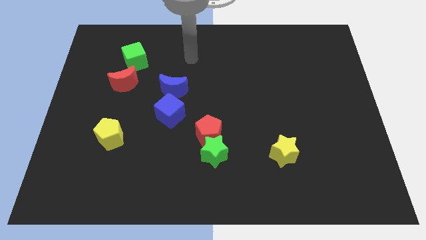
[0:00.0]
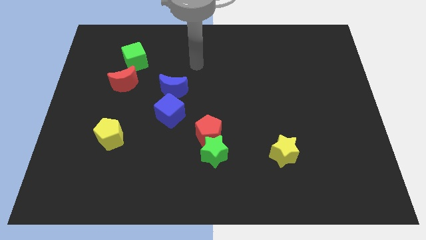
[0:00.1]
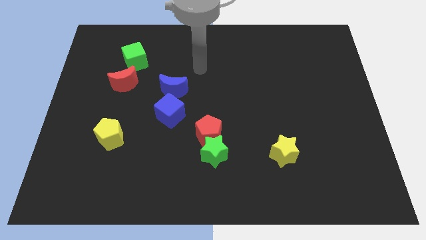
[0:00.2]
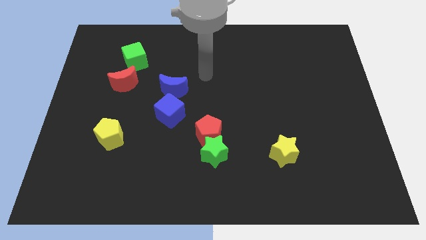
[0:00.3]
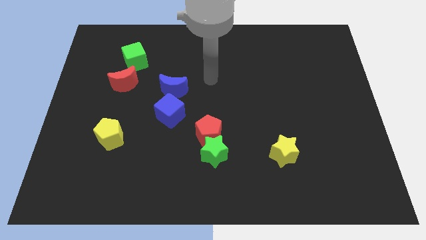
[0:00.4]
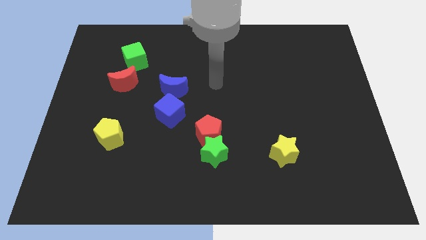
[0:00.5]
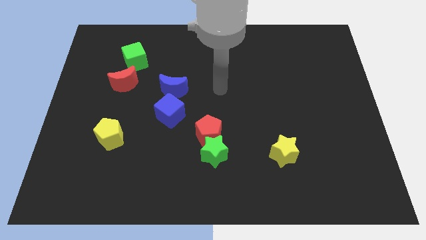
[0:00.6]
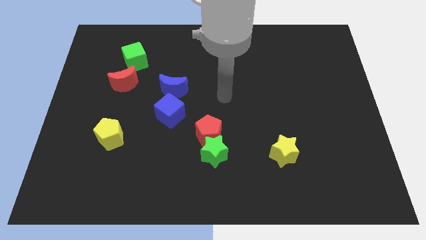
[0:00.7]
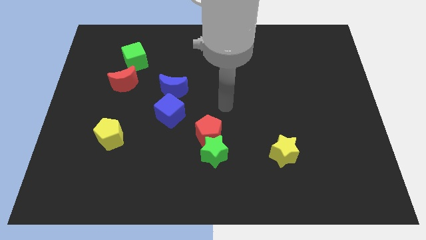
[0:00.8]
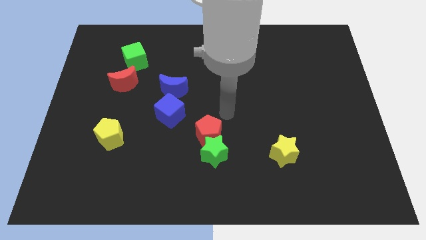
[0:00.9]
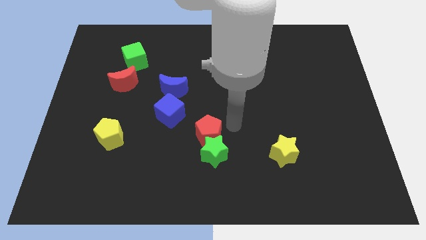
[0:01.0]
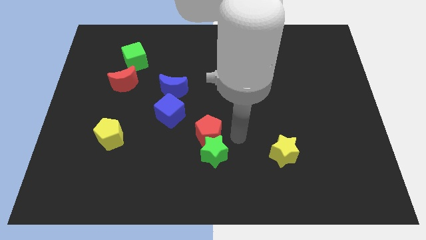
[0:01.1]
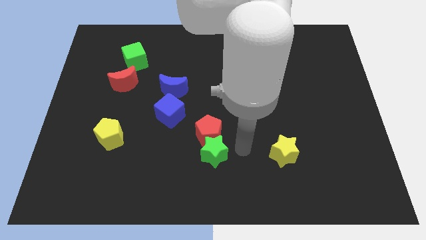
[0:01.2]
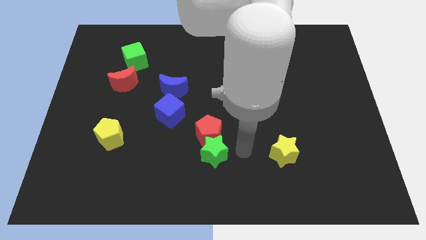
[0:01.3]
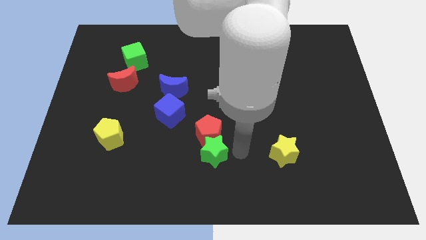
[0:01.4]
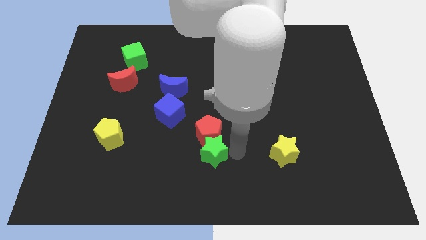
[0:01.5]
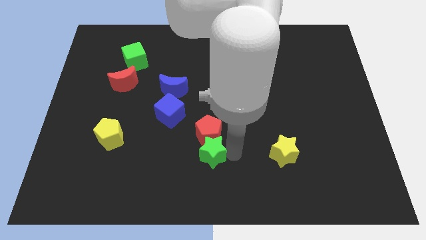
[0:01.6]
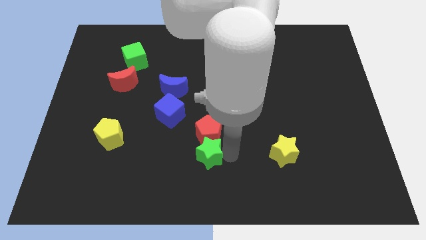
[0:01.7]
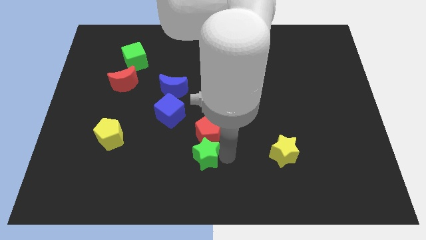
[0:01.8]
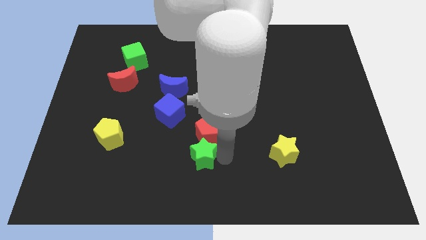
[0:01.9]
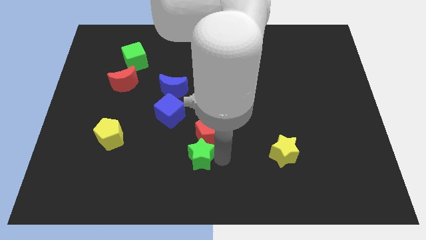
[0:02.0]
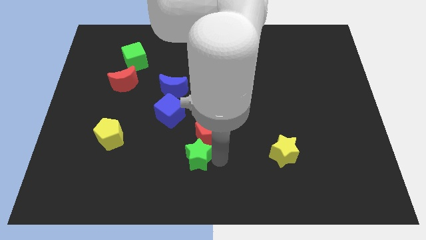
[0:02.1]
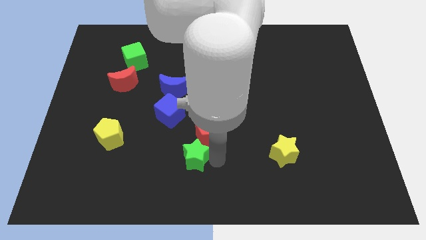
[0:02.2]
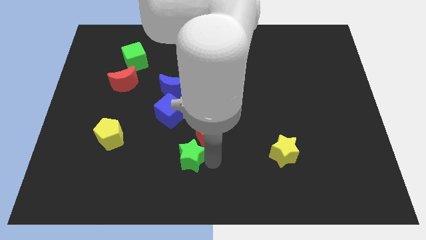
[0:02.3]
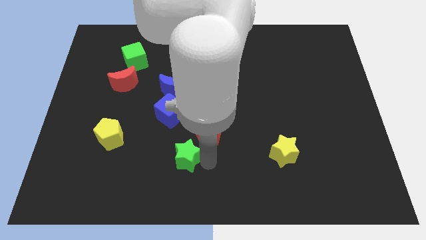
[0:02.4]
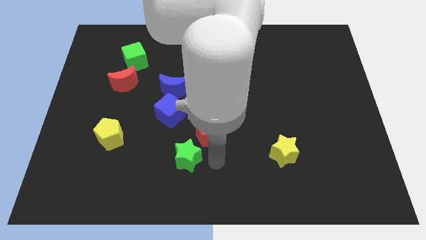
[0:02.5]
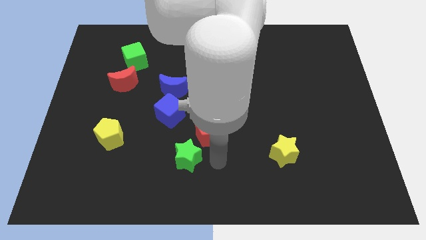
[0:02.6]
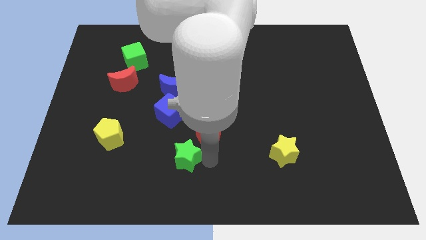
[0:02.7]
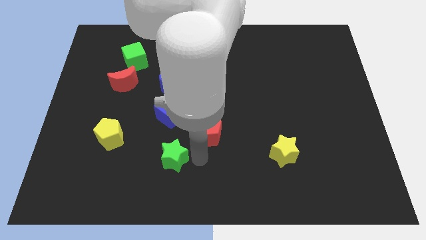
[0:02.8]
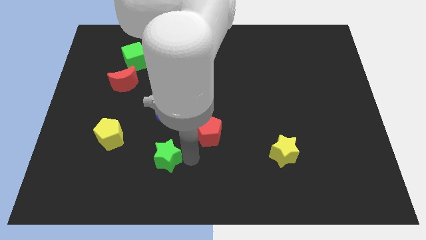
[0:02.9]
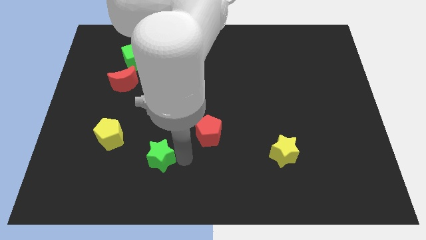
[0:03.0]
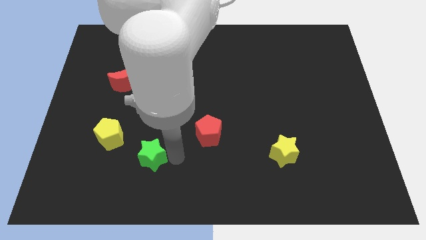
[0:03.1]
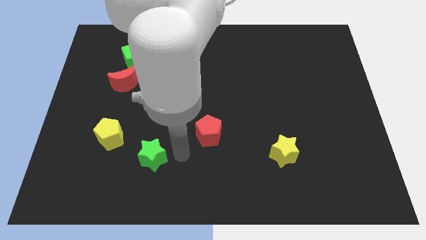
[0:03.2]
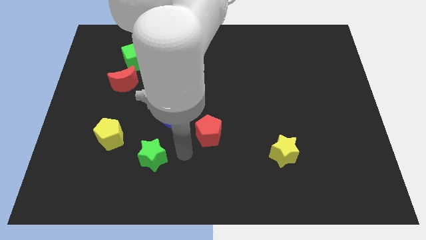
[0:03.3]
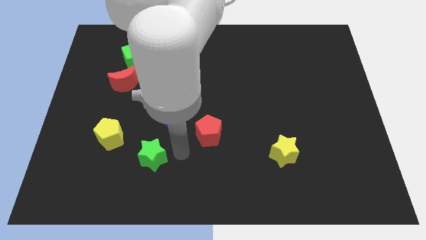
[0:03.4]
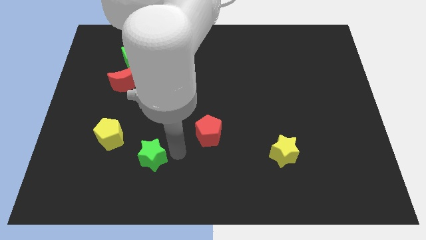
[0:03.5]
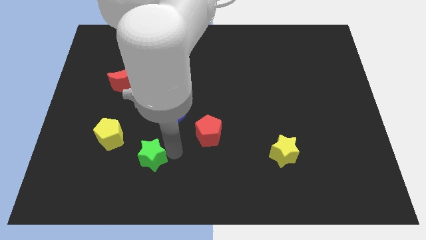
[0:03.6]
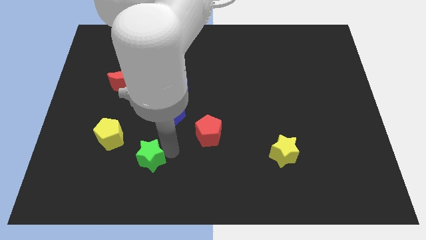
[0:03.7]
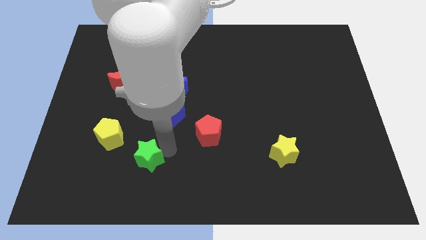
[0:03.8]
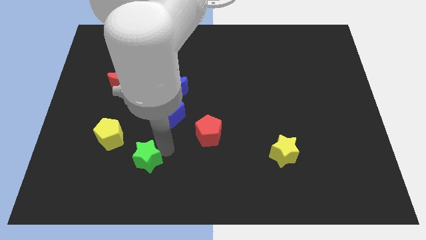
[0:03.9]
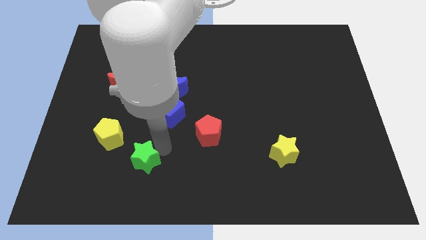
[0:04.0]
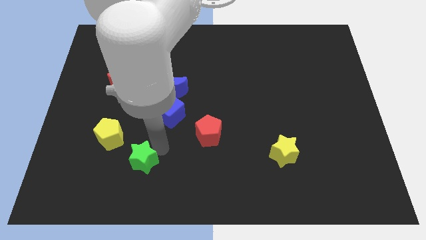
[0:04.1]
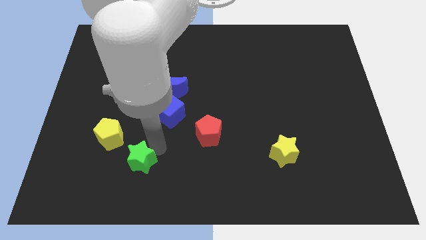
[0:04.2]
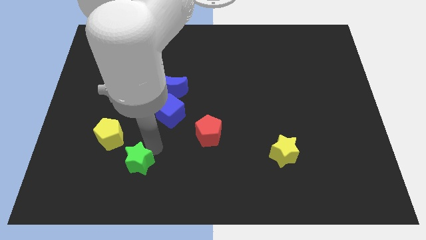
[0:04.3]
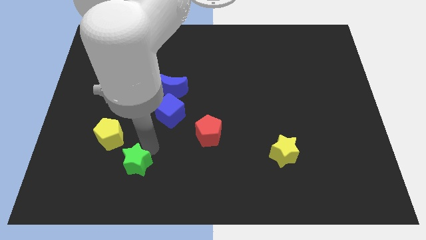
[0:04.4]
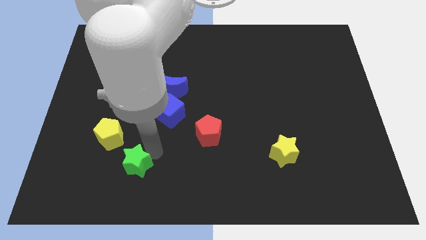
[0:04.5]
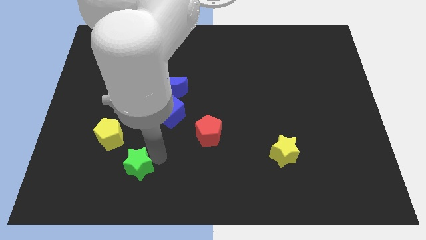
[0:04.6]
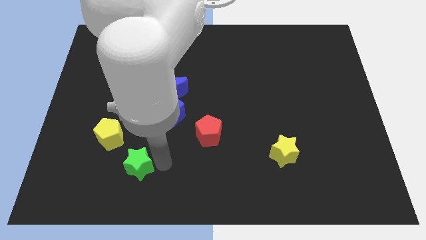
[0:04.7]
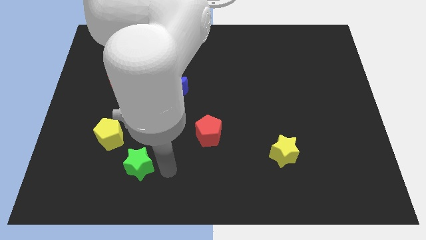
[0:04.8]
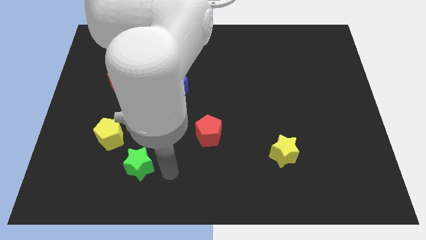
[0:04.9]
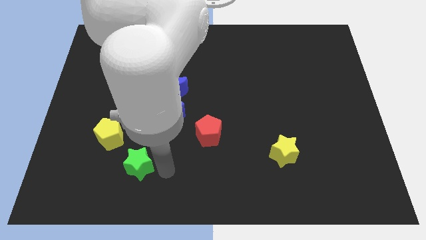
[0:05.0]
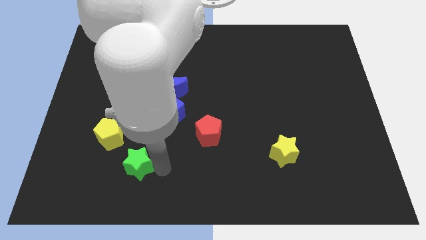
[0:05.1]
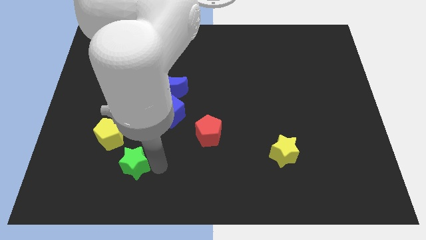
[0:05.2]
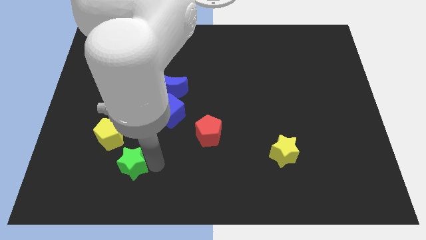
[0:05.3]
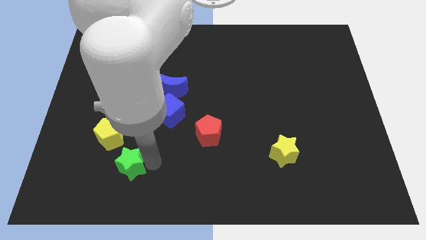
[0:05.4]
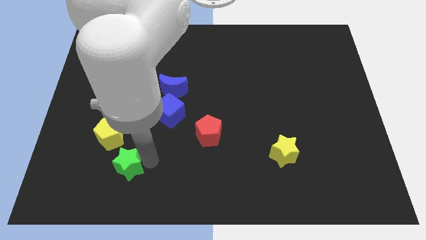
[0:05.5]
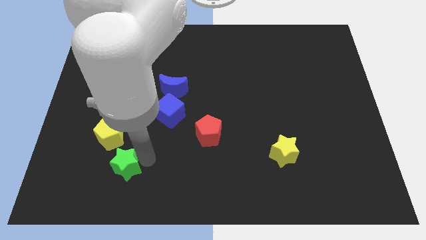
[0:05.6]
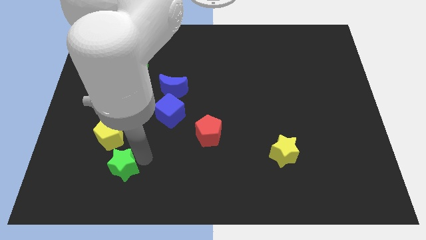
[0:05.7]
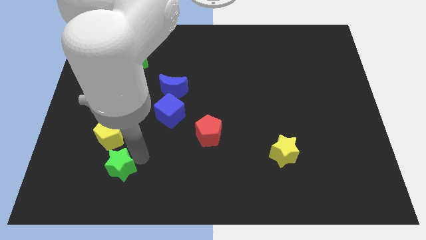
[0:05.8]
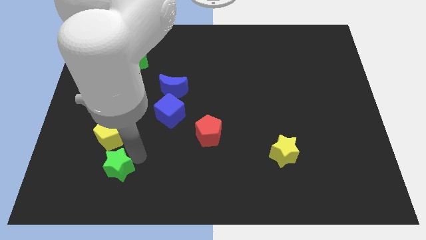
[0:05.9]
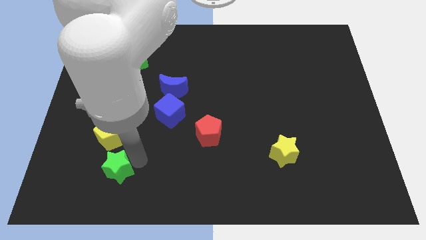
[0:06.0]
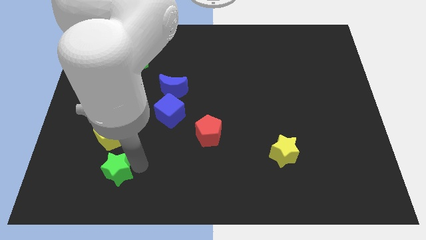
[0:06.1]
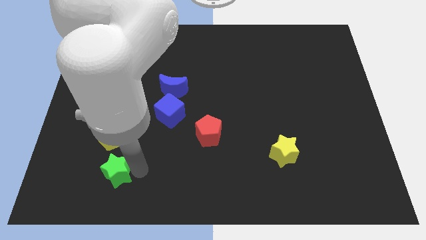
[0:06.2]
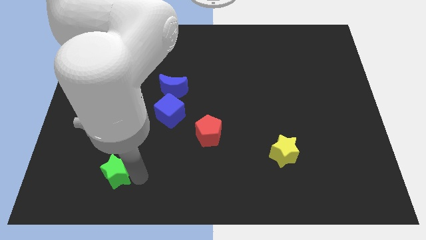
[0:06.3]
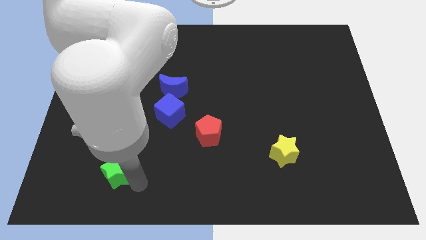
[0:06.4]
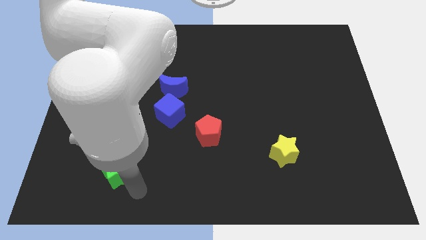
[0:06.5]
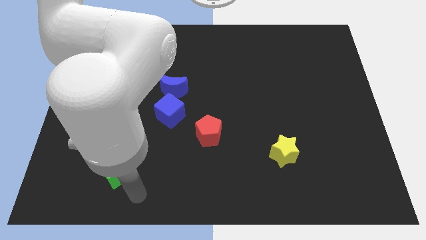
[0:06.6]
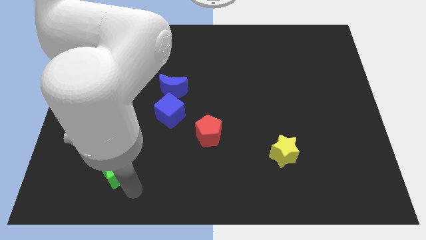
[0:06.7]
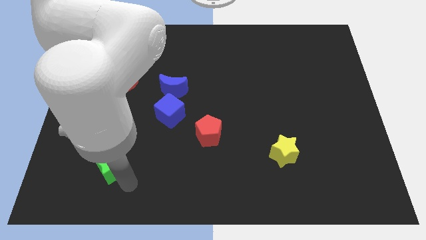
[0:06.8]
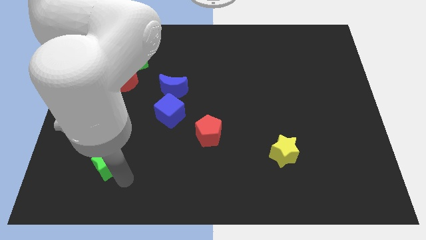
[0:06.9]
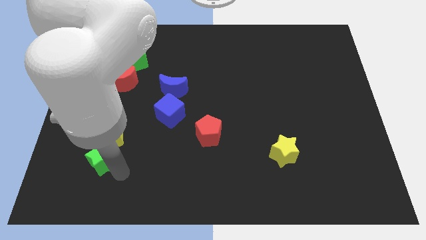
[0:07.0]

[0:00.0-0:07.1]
move the green star diagonally down and to the left of the yellow pentagon

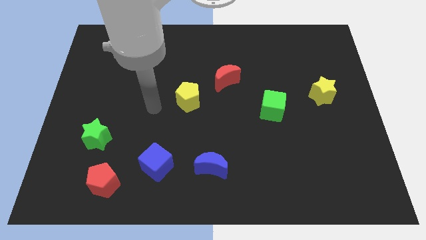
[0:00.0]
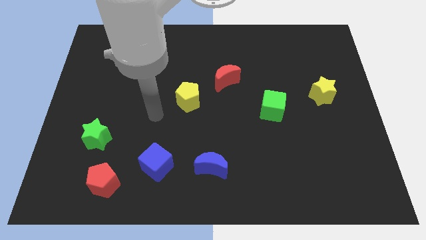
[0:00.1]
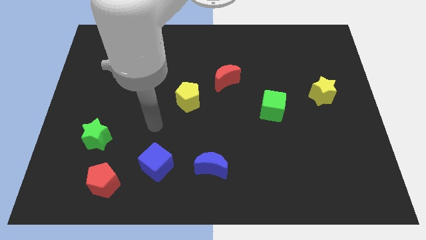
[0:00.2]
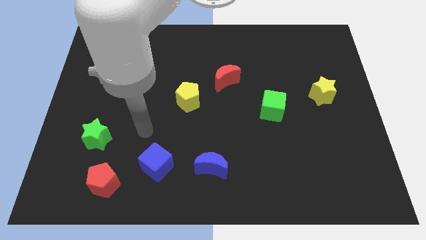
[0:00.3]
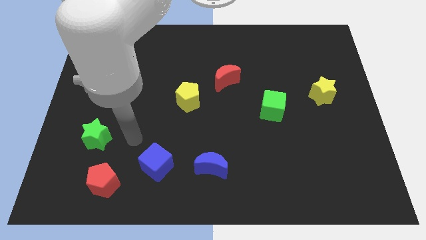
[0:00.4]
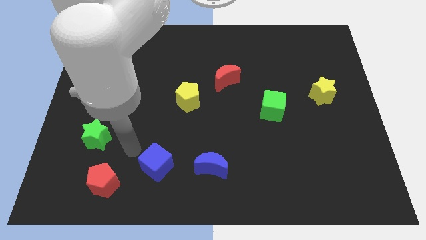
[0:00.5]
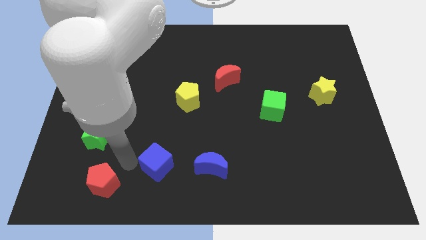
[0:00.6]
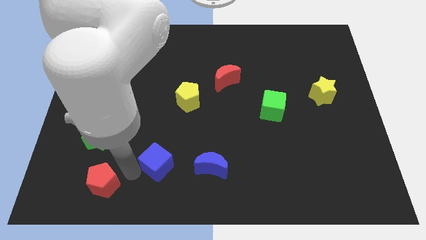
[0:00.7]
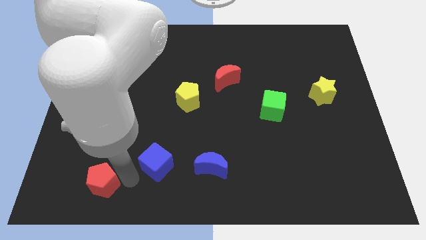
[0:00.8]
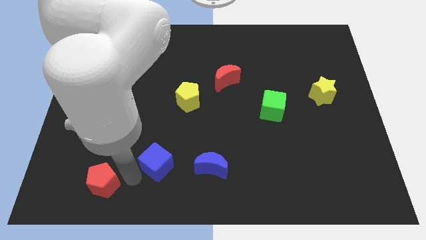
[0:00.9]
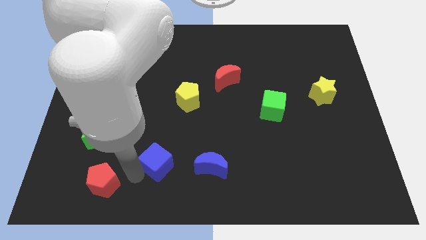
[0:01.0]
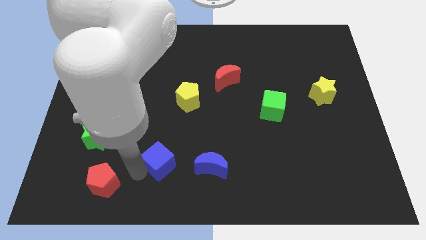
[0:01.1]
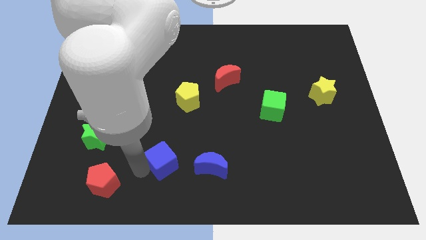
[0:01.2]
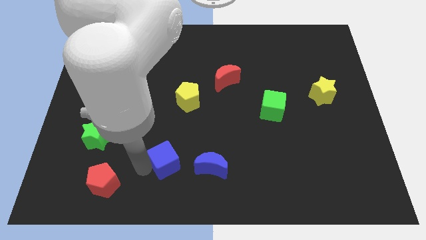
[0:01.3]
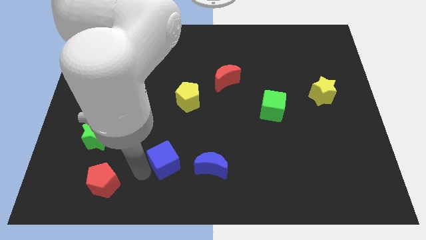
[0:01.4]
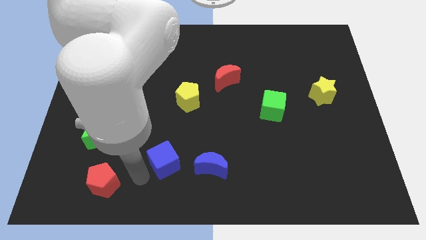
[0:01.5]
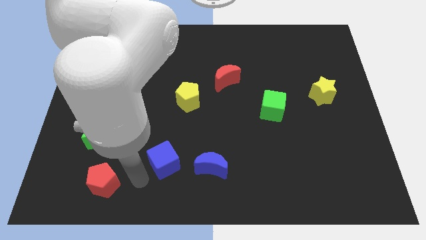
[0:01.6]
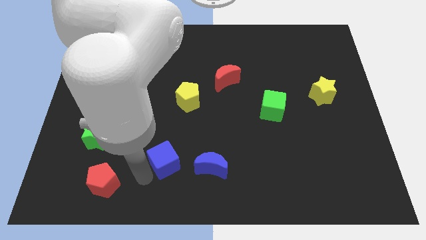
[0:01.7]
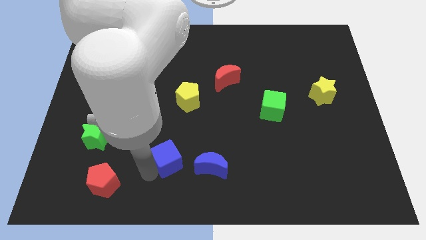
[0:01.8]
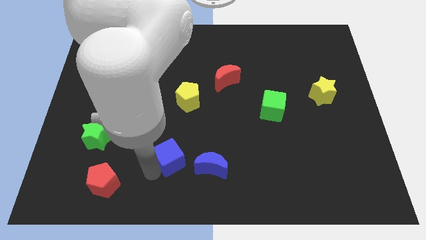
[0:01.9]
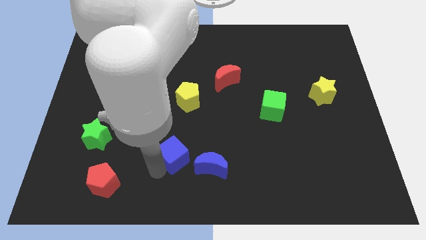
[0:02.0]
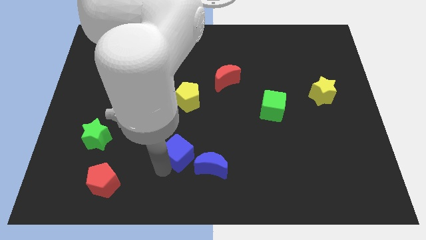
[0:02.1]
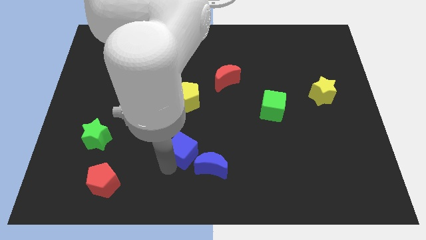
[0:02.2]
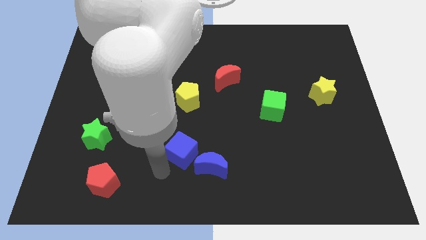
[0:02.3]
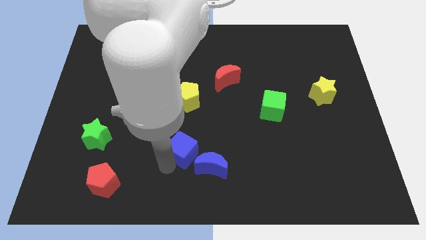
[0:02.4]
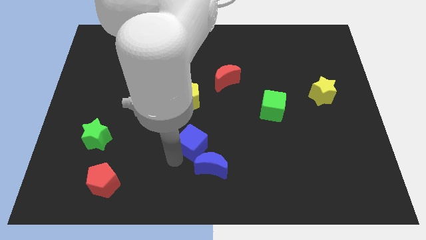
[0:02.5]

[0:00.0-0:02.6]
slide the blue cube to the top side of the blue moon
